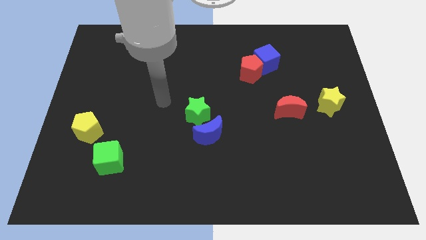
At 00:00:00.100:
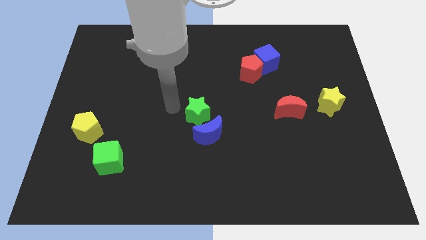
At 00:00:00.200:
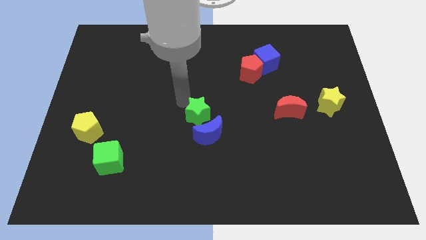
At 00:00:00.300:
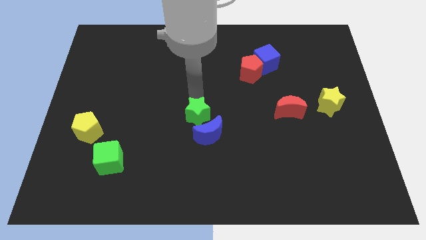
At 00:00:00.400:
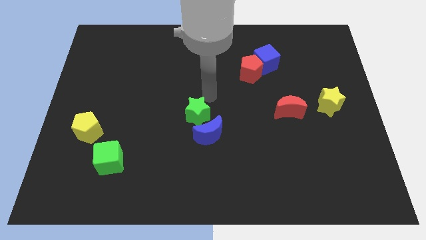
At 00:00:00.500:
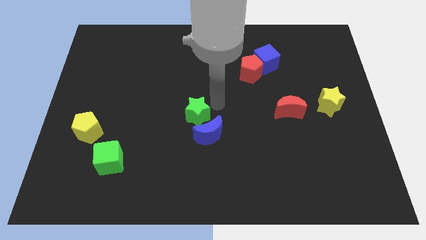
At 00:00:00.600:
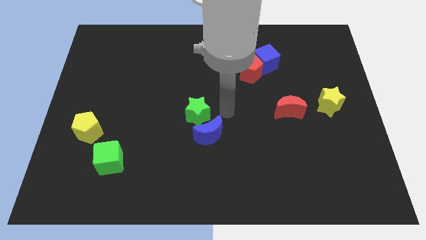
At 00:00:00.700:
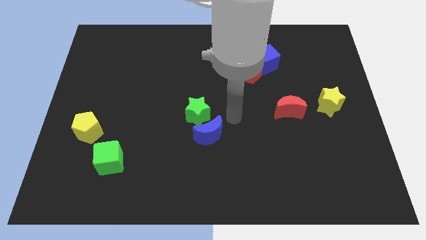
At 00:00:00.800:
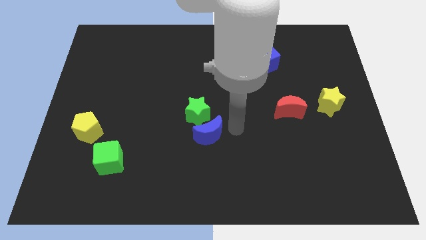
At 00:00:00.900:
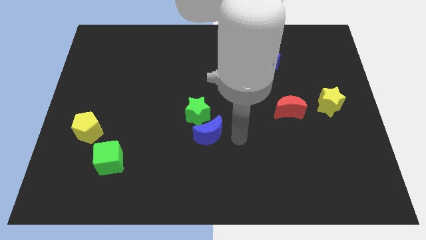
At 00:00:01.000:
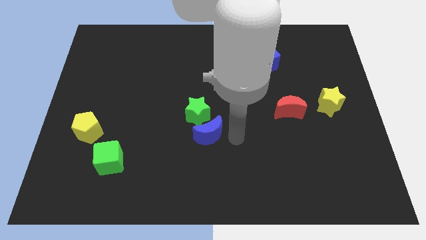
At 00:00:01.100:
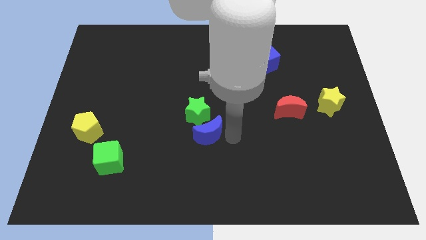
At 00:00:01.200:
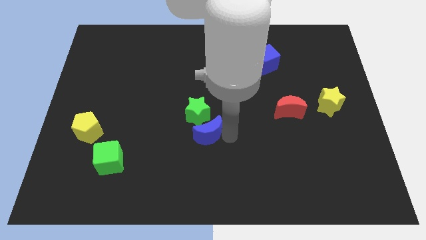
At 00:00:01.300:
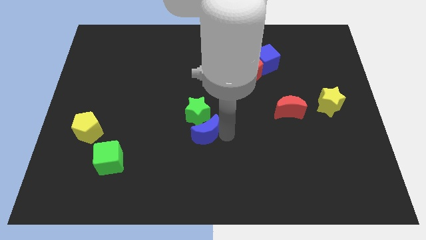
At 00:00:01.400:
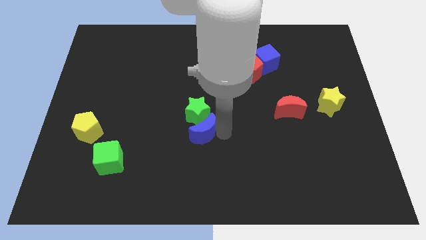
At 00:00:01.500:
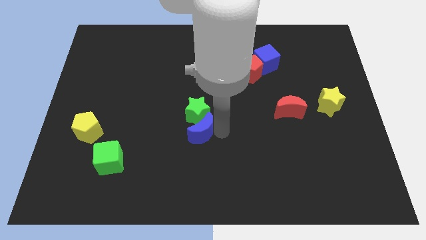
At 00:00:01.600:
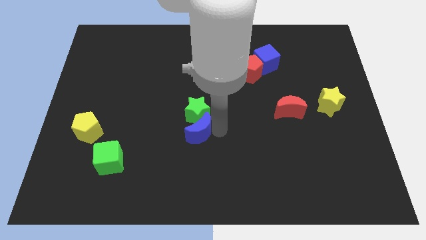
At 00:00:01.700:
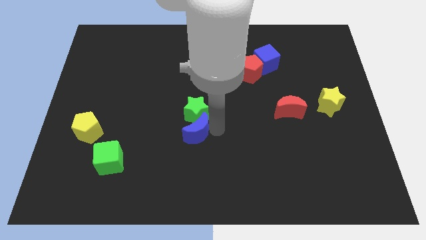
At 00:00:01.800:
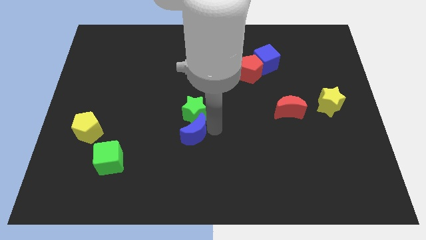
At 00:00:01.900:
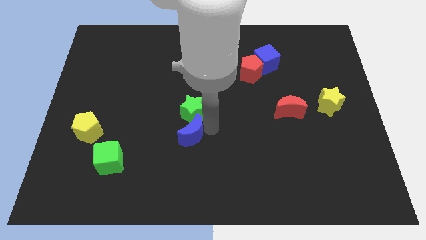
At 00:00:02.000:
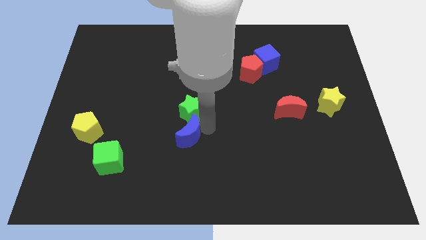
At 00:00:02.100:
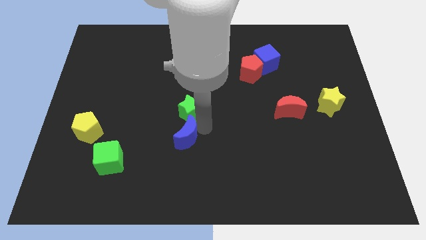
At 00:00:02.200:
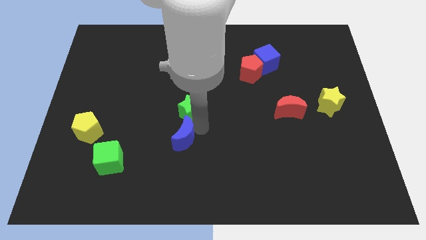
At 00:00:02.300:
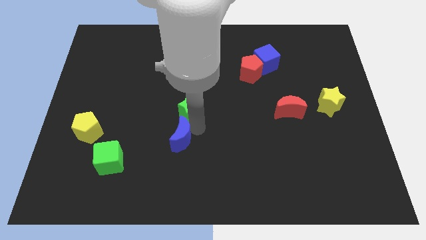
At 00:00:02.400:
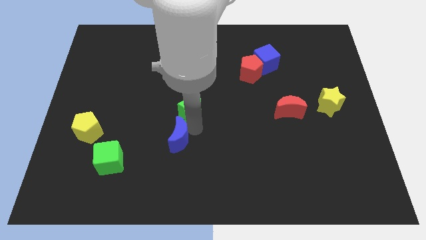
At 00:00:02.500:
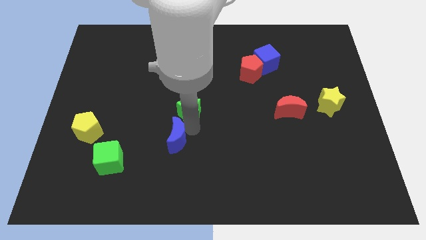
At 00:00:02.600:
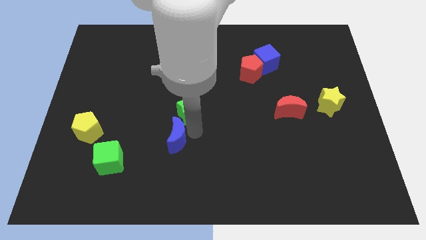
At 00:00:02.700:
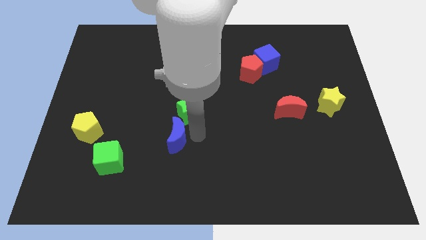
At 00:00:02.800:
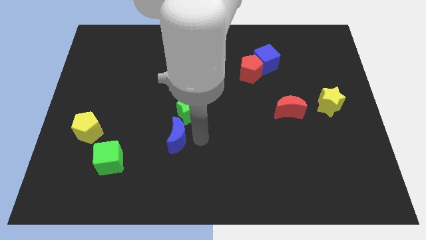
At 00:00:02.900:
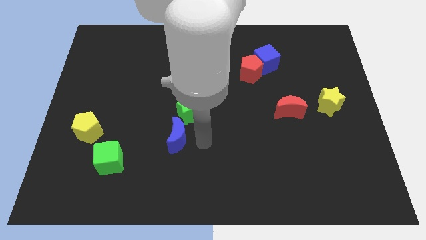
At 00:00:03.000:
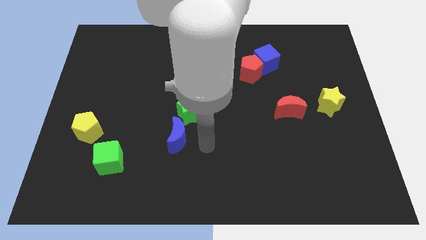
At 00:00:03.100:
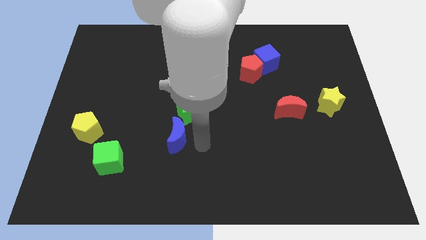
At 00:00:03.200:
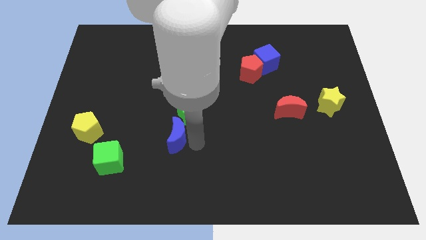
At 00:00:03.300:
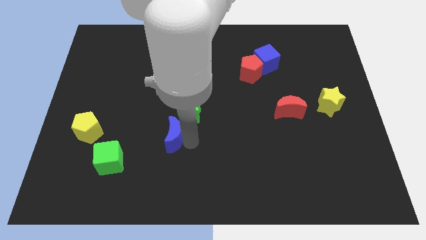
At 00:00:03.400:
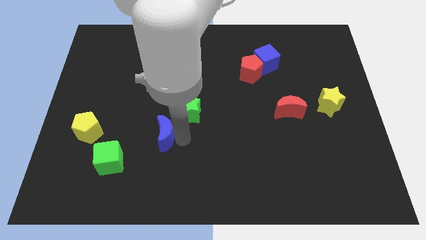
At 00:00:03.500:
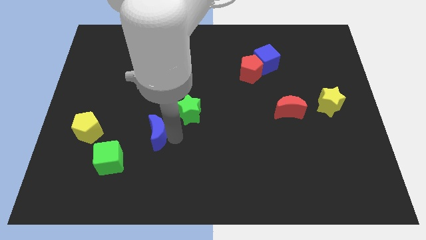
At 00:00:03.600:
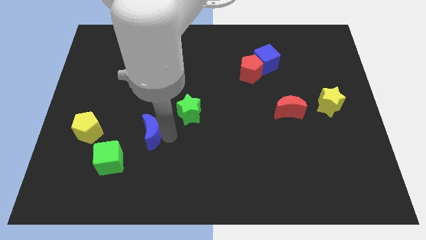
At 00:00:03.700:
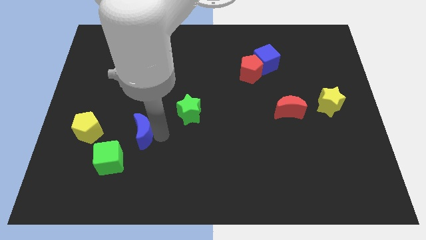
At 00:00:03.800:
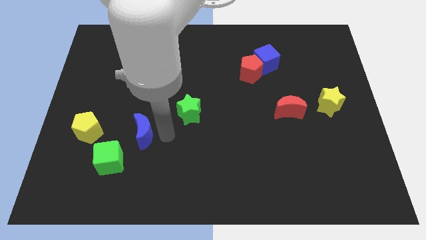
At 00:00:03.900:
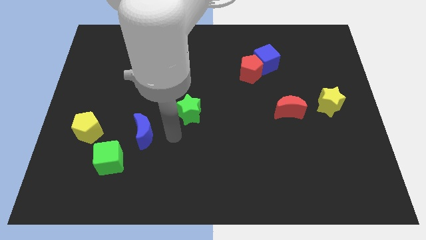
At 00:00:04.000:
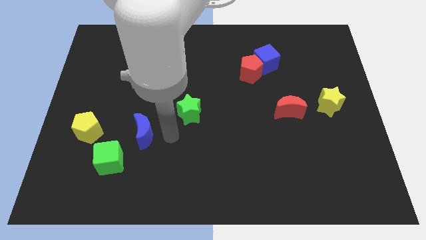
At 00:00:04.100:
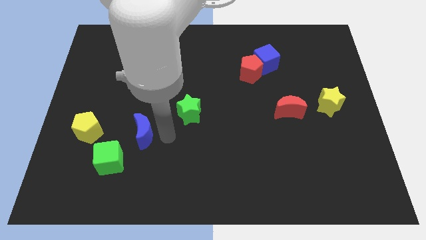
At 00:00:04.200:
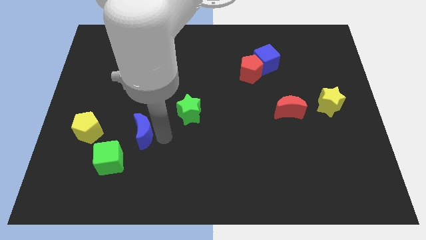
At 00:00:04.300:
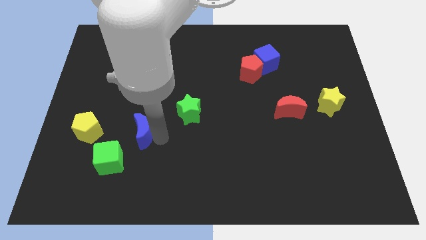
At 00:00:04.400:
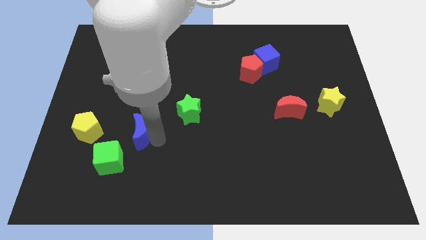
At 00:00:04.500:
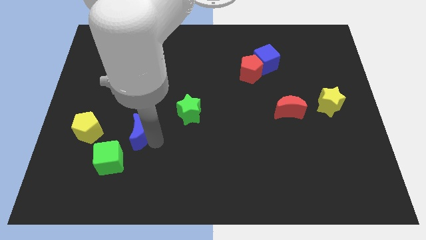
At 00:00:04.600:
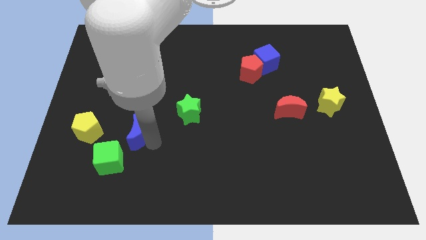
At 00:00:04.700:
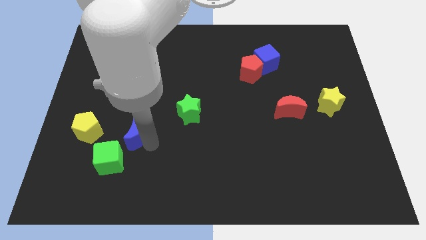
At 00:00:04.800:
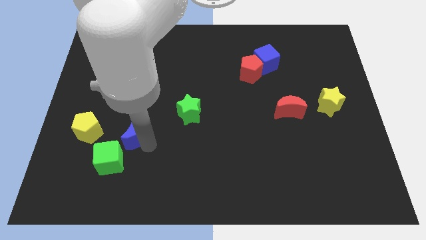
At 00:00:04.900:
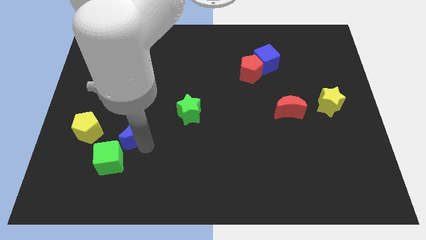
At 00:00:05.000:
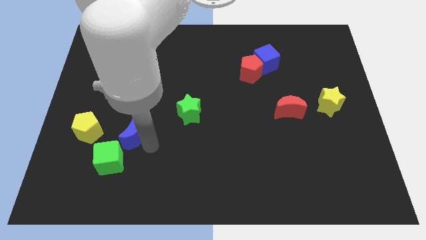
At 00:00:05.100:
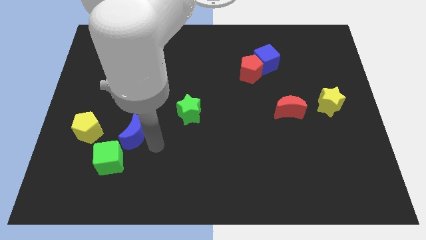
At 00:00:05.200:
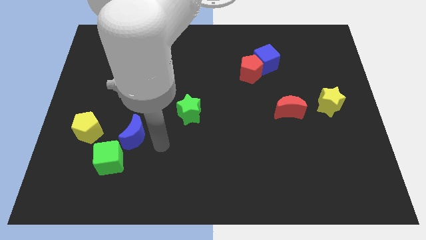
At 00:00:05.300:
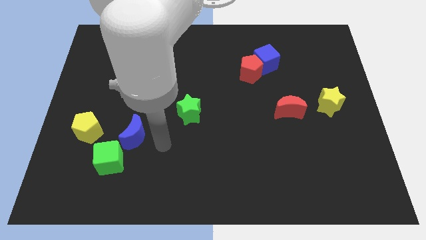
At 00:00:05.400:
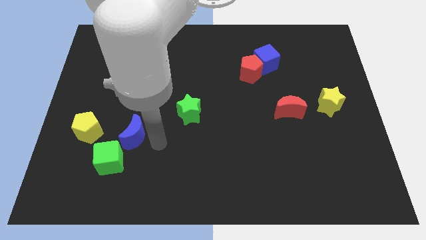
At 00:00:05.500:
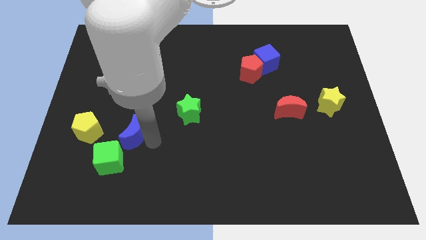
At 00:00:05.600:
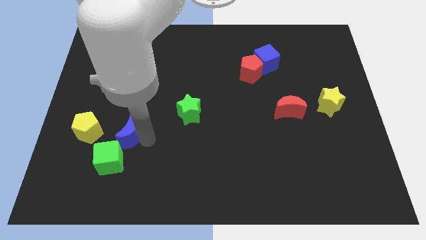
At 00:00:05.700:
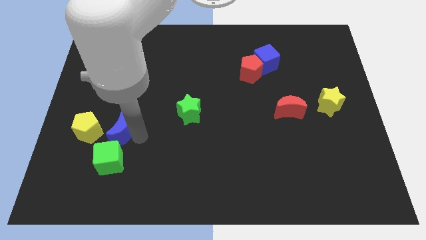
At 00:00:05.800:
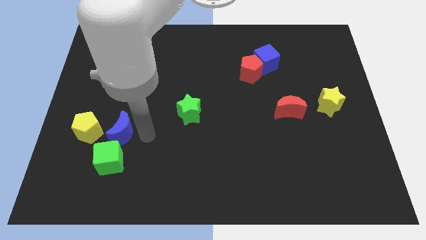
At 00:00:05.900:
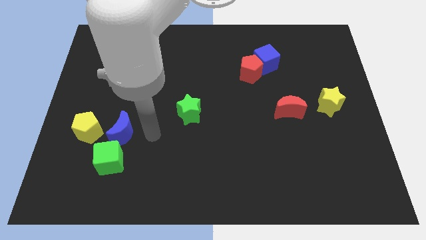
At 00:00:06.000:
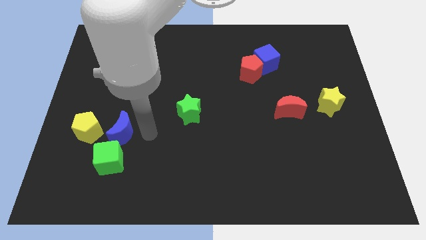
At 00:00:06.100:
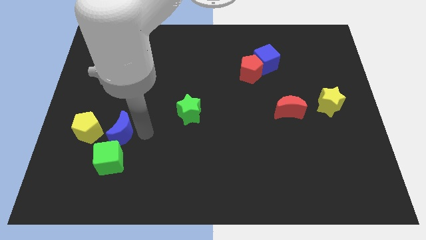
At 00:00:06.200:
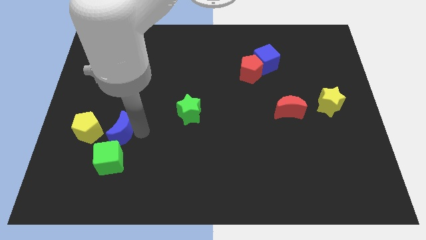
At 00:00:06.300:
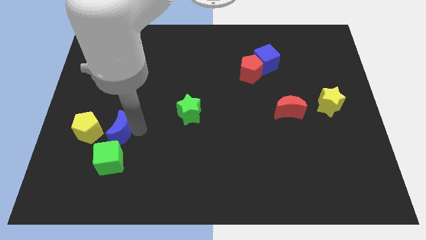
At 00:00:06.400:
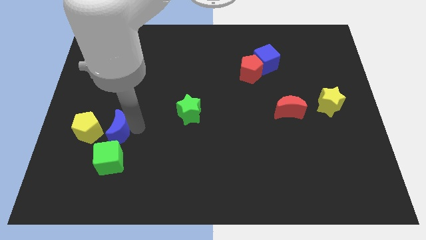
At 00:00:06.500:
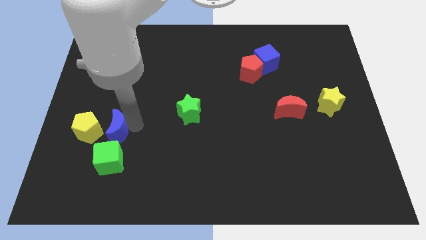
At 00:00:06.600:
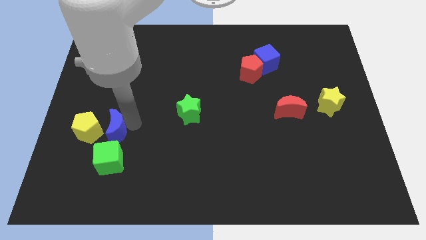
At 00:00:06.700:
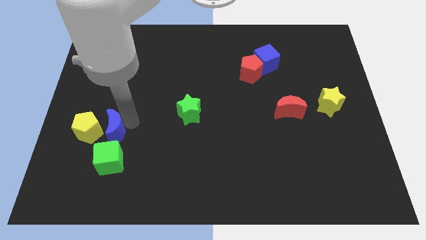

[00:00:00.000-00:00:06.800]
push the blue moon close to the yellow pentagon
